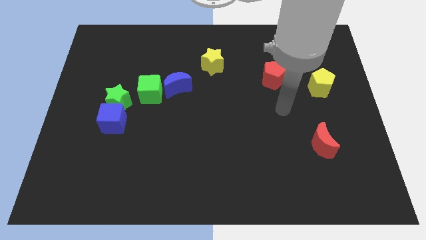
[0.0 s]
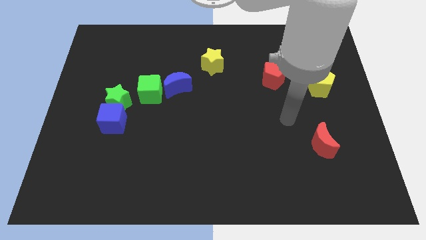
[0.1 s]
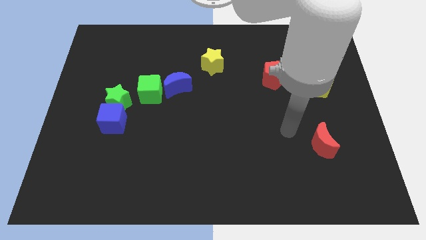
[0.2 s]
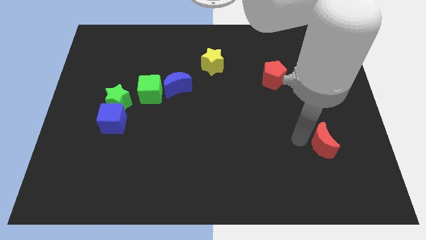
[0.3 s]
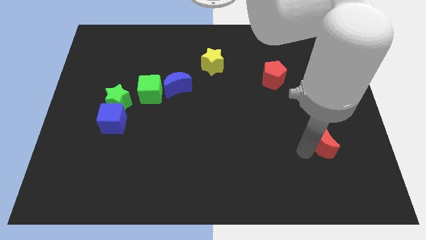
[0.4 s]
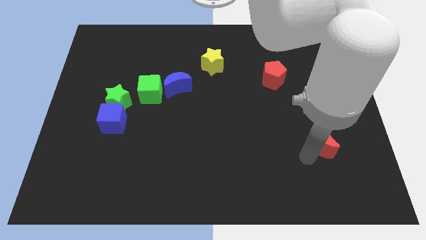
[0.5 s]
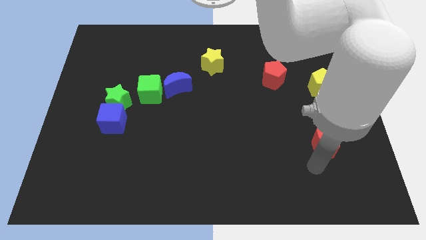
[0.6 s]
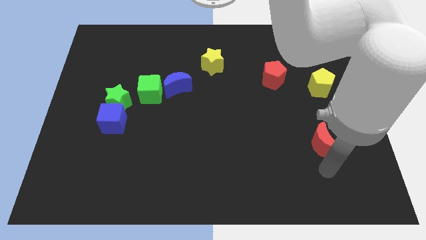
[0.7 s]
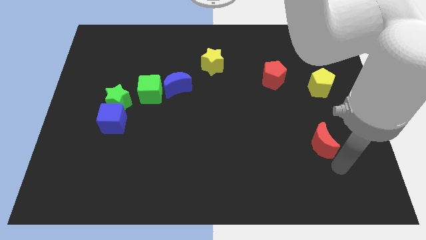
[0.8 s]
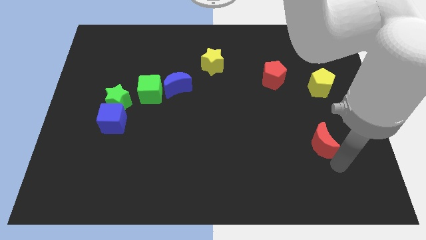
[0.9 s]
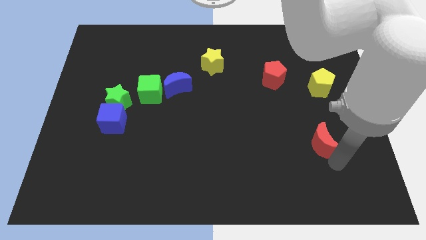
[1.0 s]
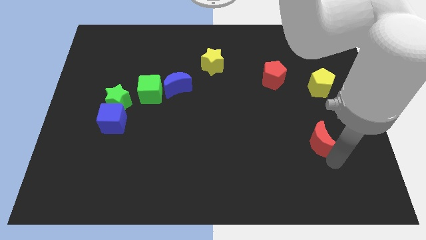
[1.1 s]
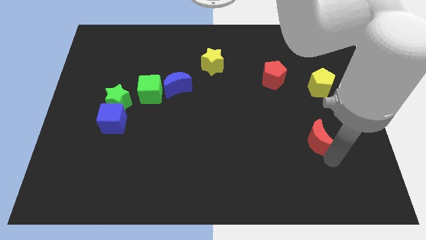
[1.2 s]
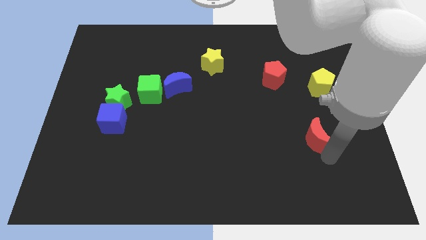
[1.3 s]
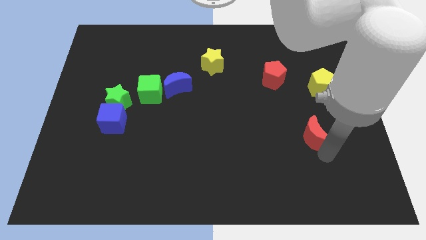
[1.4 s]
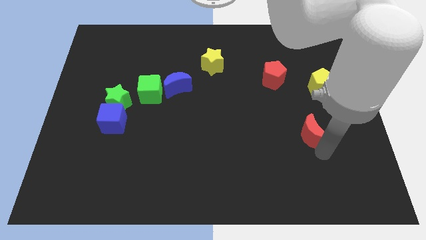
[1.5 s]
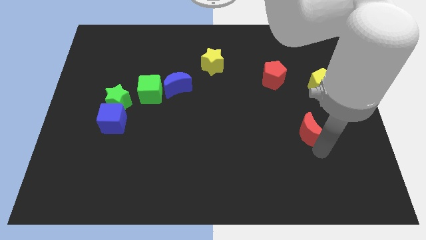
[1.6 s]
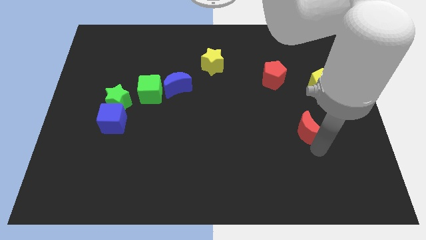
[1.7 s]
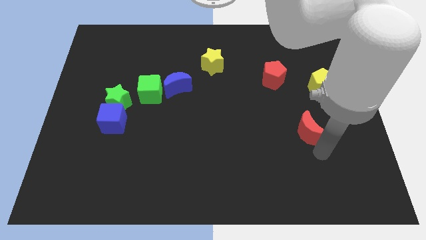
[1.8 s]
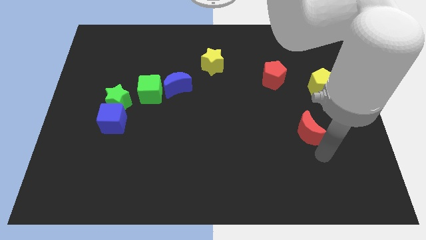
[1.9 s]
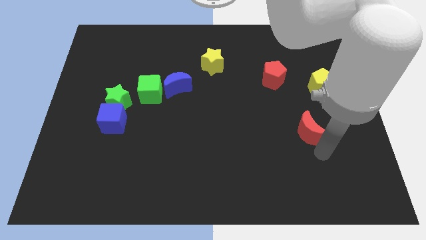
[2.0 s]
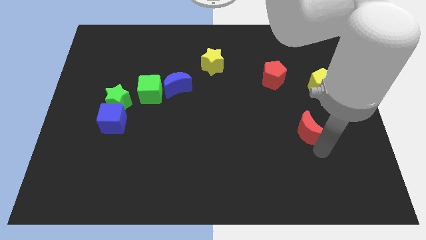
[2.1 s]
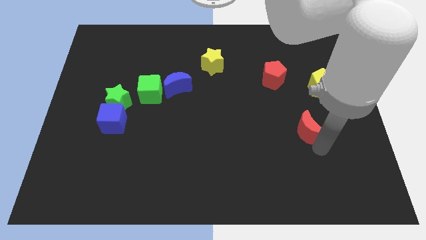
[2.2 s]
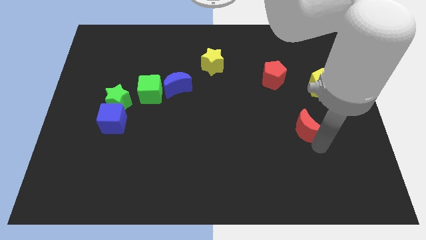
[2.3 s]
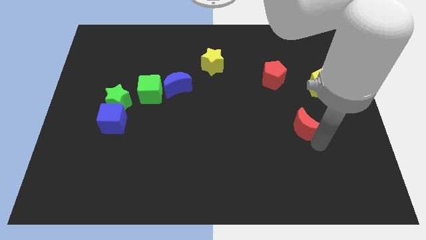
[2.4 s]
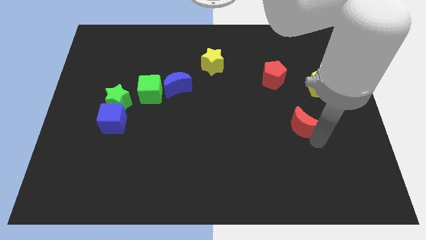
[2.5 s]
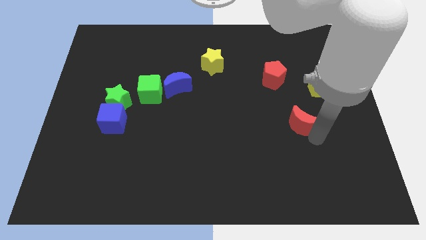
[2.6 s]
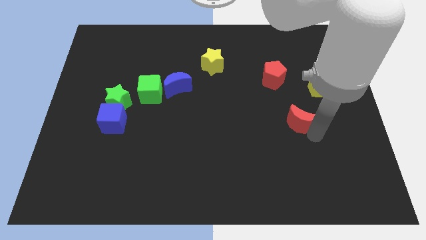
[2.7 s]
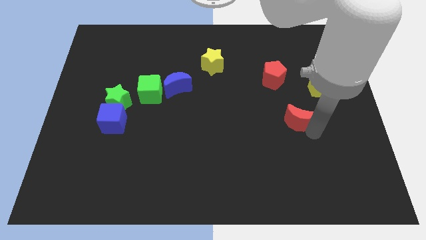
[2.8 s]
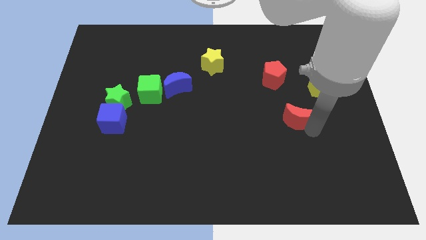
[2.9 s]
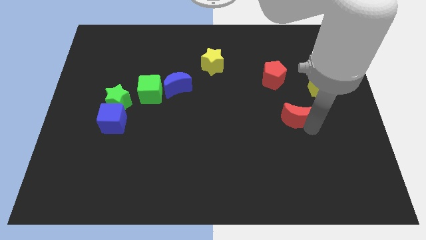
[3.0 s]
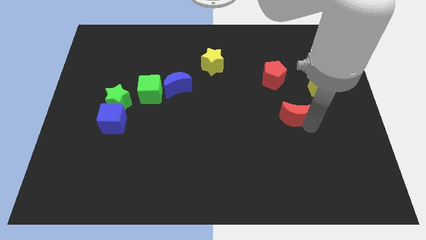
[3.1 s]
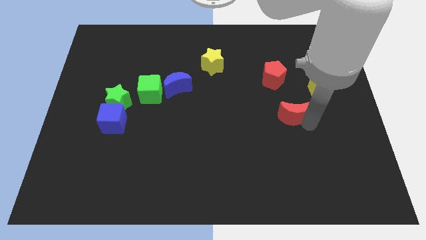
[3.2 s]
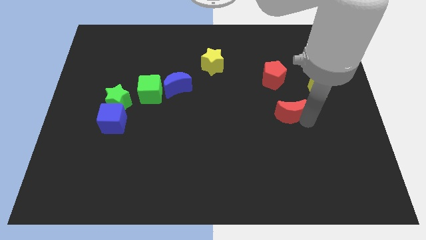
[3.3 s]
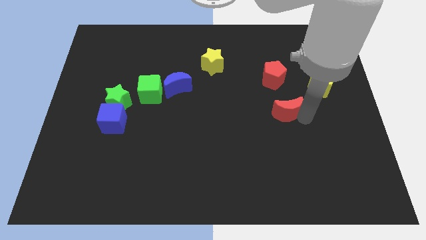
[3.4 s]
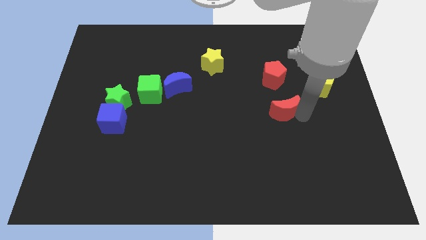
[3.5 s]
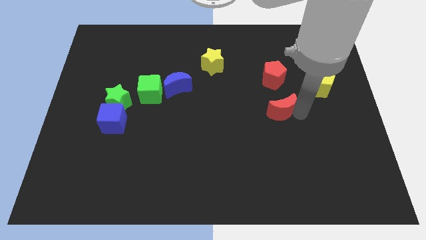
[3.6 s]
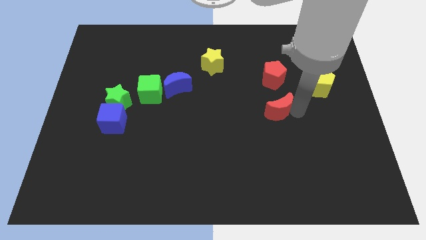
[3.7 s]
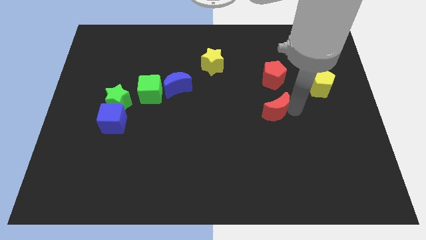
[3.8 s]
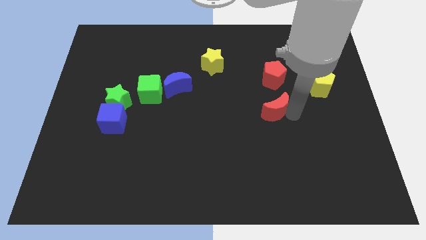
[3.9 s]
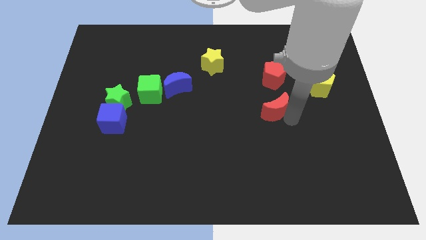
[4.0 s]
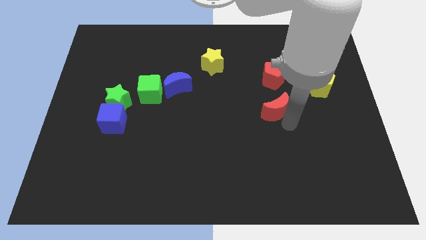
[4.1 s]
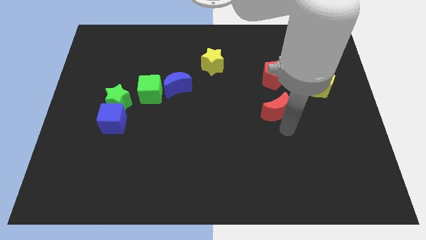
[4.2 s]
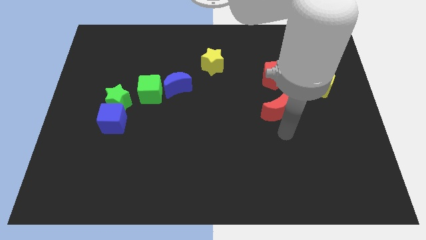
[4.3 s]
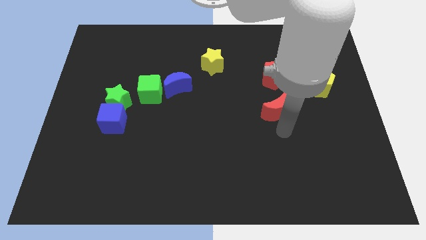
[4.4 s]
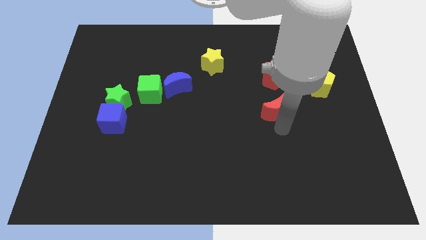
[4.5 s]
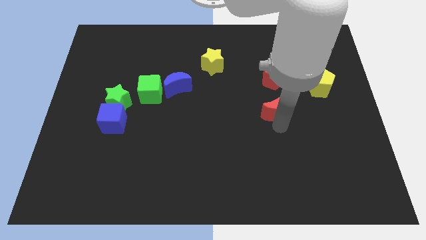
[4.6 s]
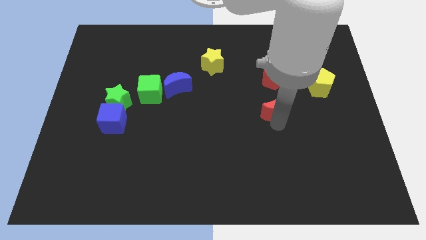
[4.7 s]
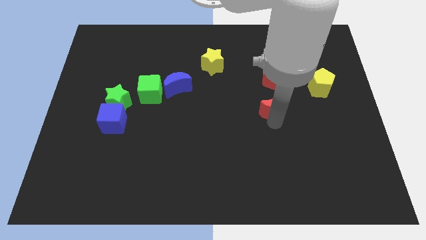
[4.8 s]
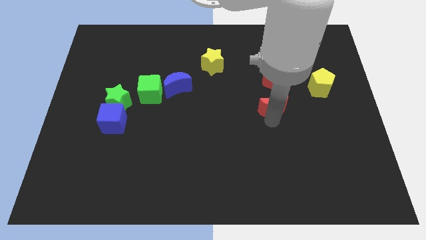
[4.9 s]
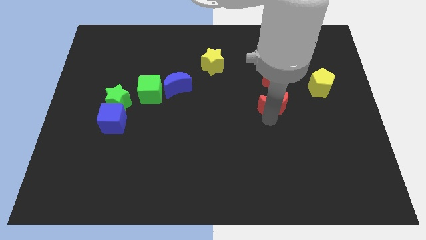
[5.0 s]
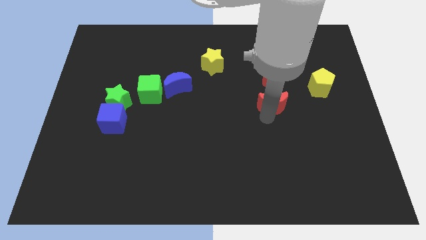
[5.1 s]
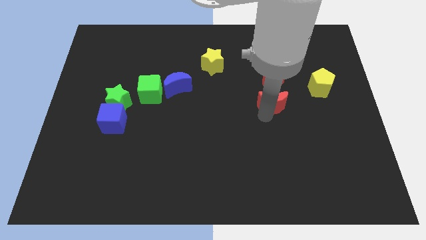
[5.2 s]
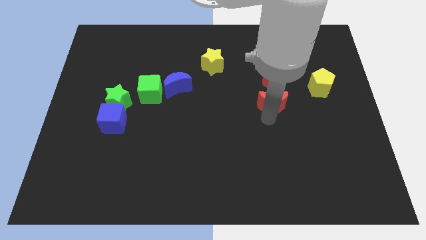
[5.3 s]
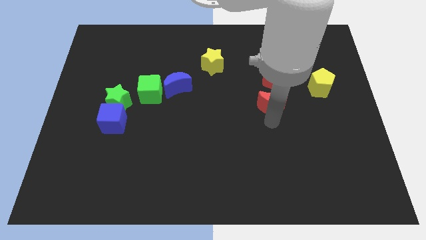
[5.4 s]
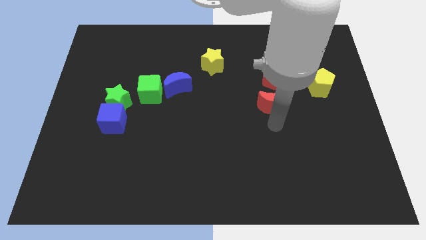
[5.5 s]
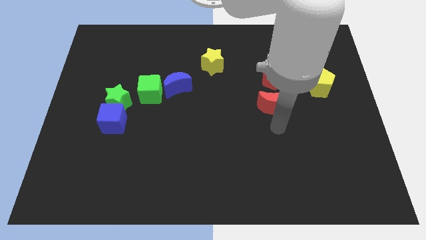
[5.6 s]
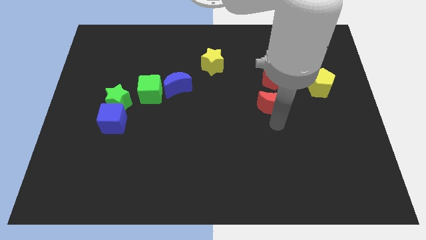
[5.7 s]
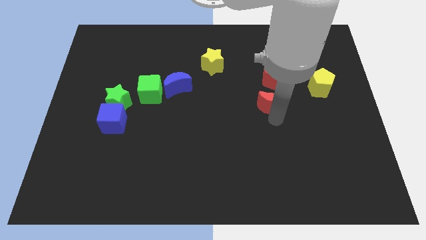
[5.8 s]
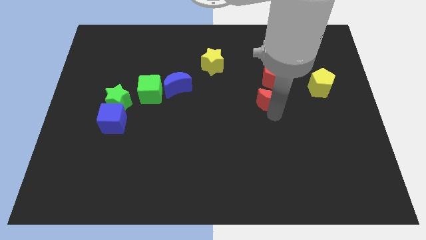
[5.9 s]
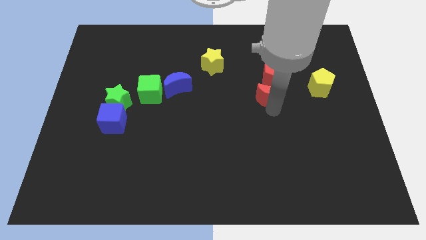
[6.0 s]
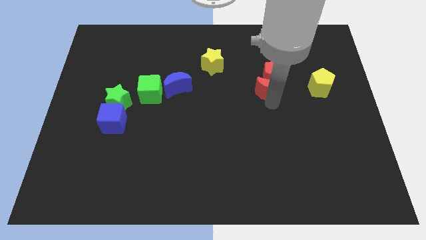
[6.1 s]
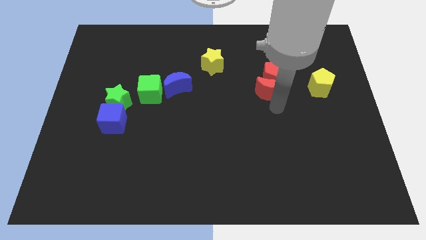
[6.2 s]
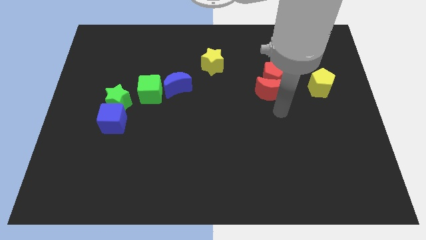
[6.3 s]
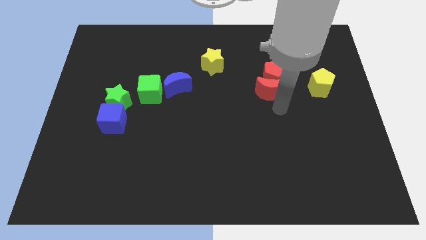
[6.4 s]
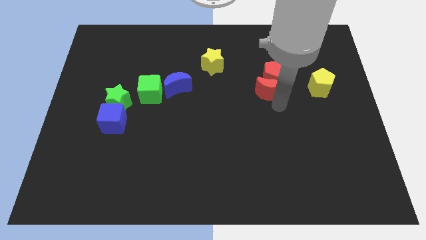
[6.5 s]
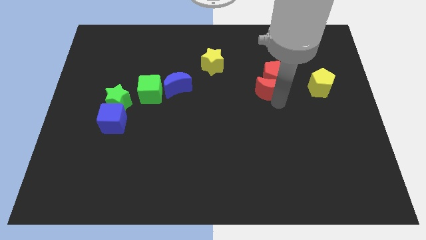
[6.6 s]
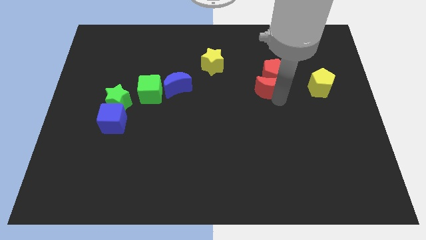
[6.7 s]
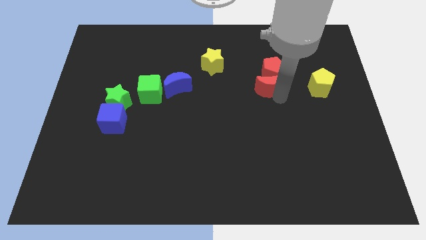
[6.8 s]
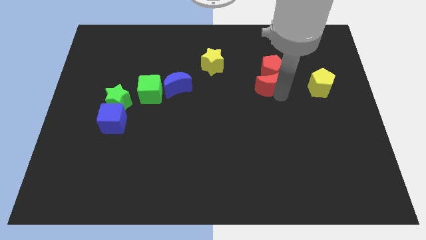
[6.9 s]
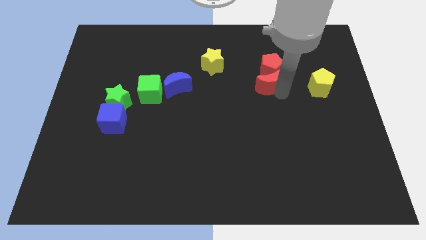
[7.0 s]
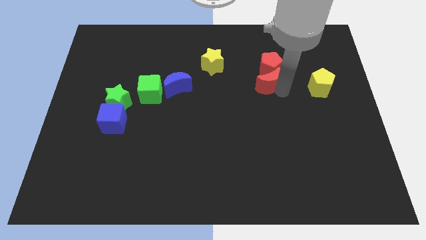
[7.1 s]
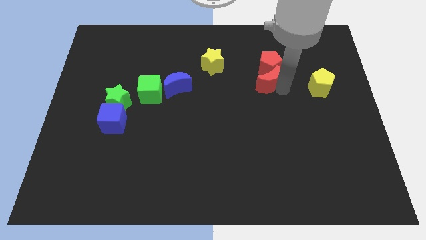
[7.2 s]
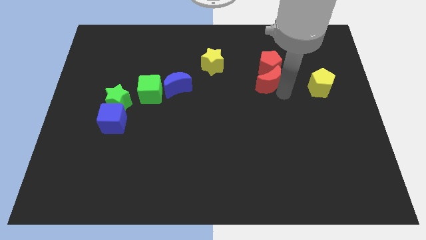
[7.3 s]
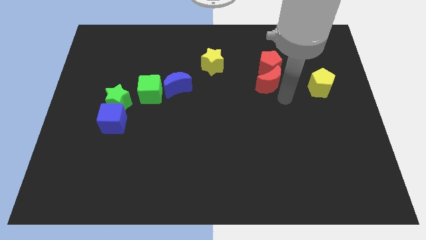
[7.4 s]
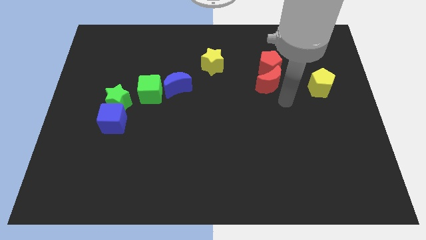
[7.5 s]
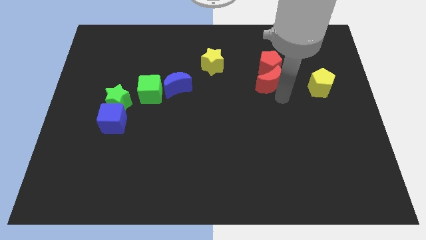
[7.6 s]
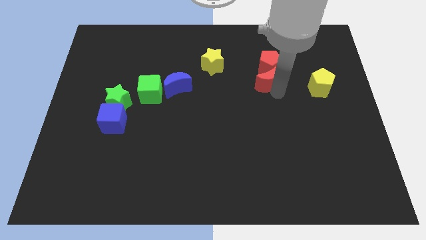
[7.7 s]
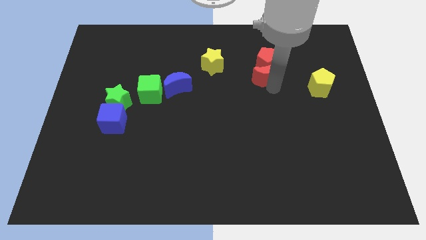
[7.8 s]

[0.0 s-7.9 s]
push the red moon right of the yellow star
